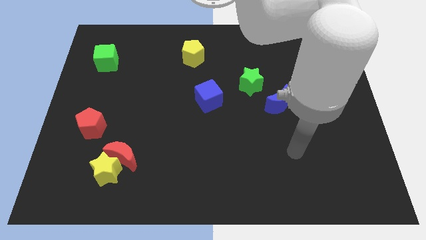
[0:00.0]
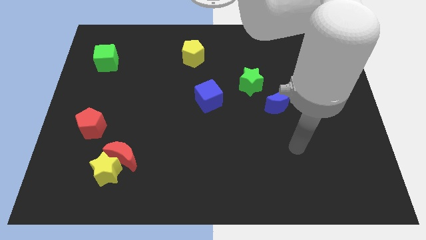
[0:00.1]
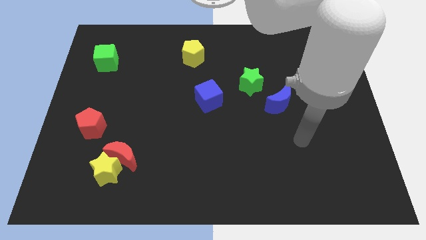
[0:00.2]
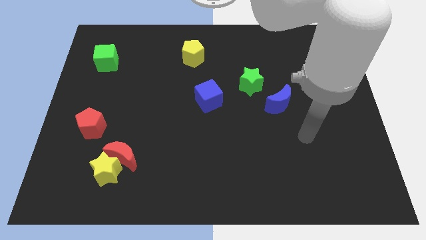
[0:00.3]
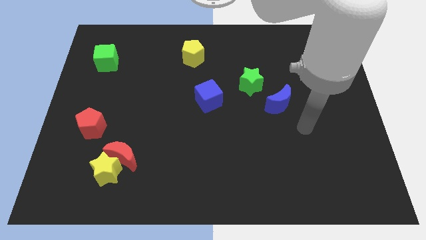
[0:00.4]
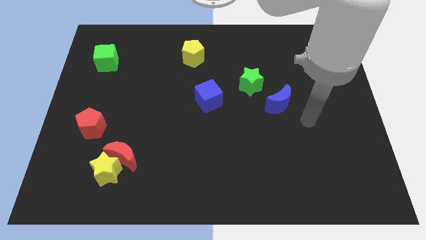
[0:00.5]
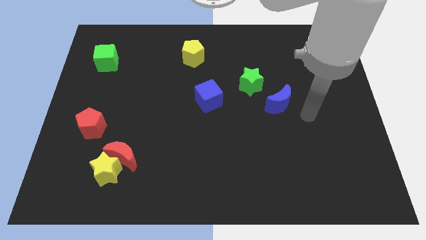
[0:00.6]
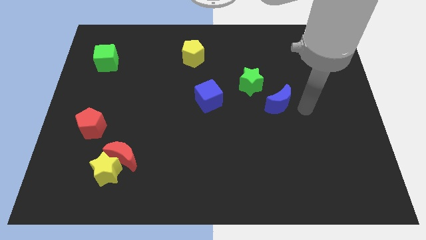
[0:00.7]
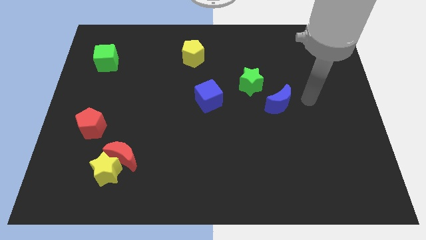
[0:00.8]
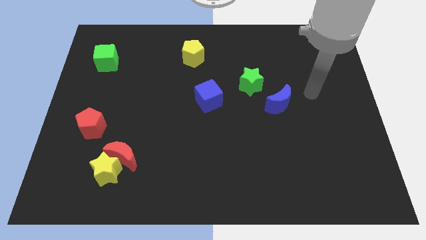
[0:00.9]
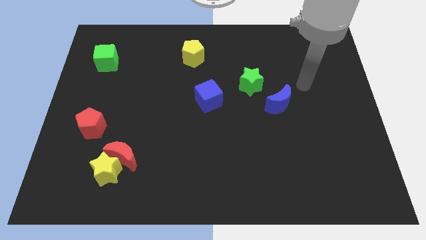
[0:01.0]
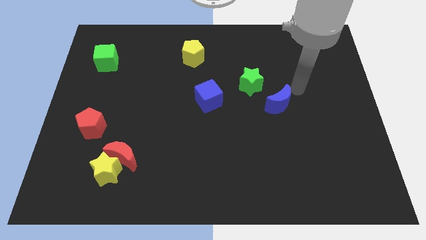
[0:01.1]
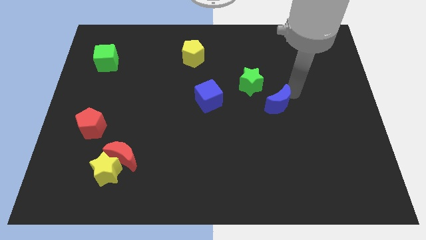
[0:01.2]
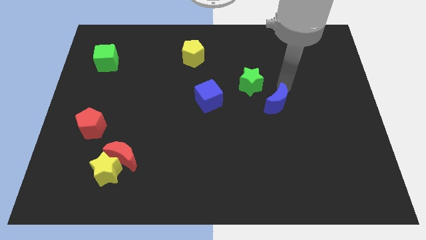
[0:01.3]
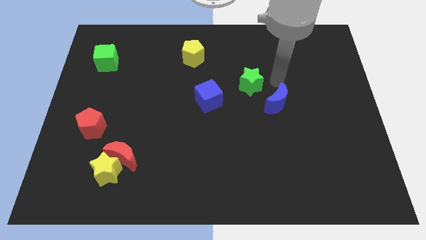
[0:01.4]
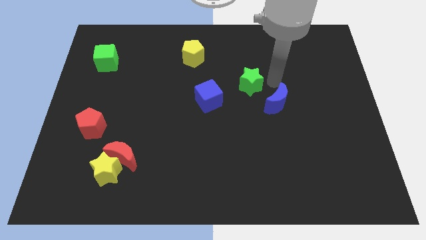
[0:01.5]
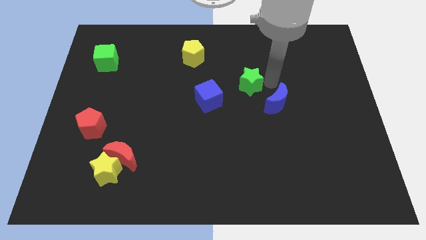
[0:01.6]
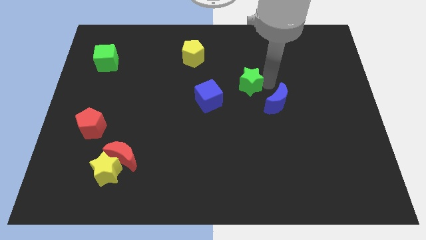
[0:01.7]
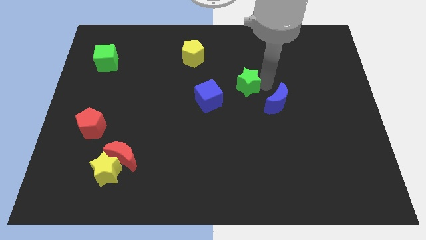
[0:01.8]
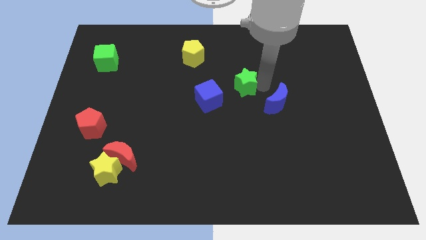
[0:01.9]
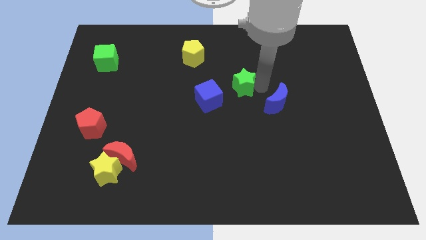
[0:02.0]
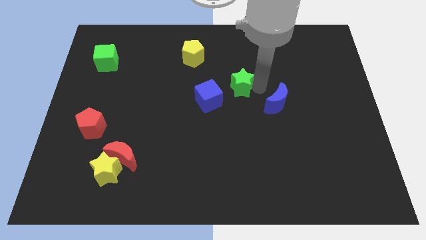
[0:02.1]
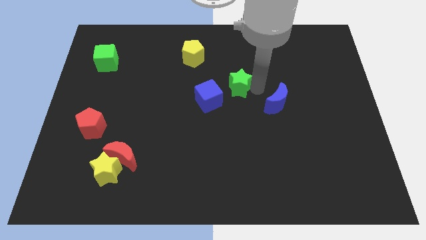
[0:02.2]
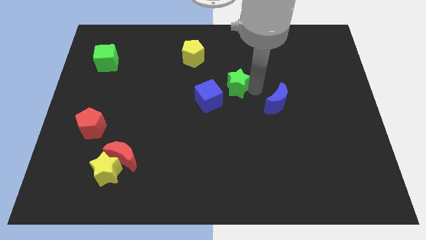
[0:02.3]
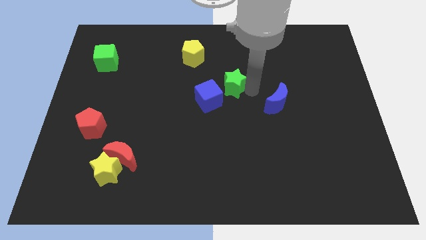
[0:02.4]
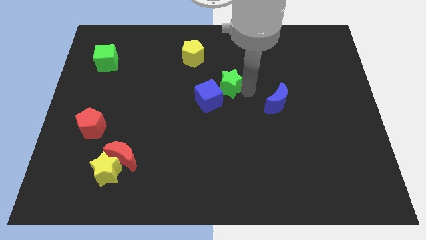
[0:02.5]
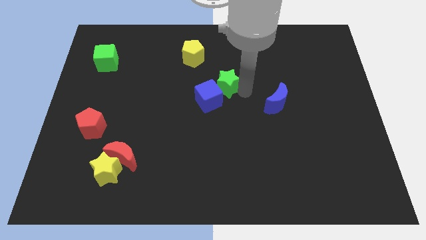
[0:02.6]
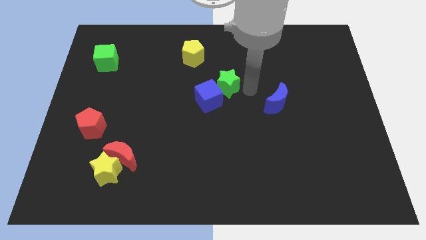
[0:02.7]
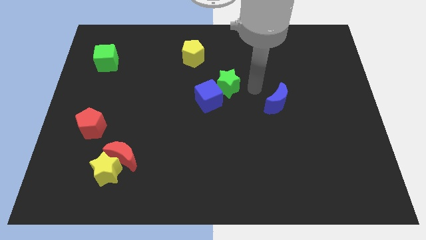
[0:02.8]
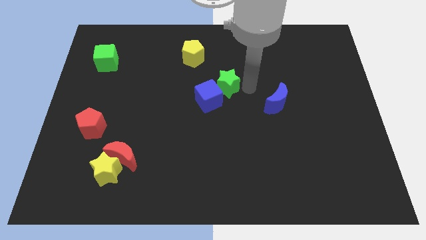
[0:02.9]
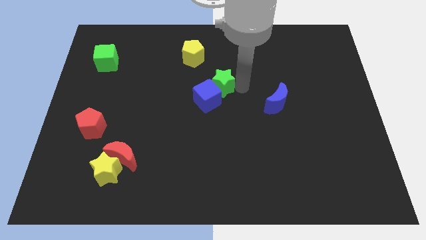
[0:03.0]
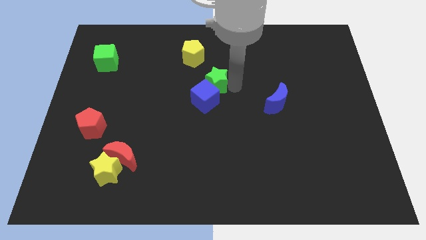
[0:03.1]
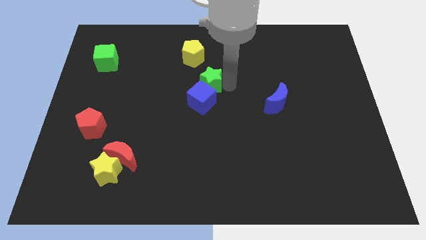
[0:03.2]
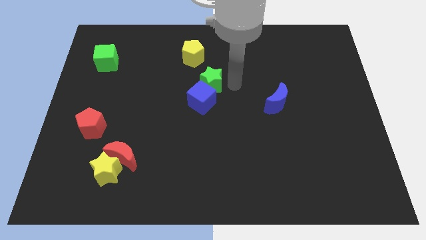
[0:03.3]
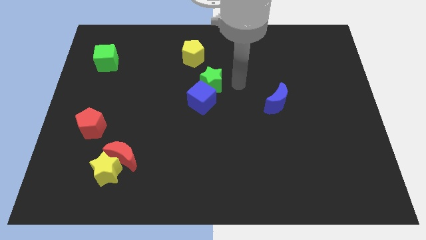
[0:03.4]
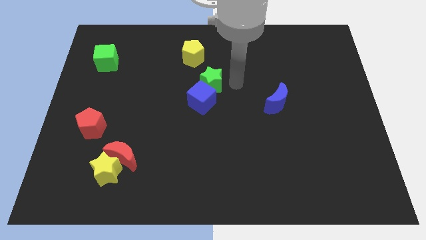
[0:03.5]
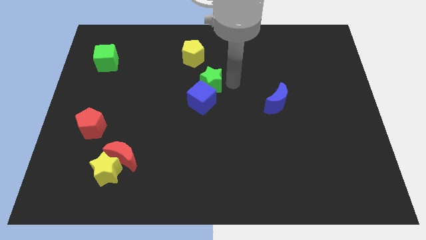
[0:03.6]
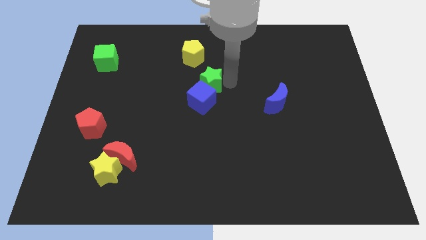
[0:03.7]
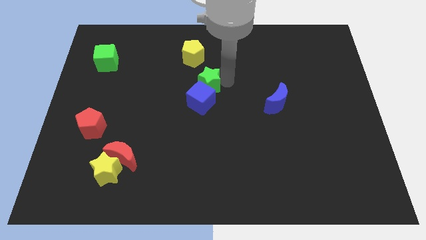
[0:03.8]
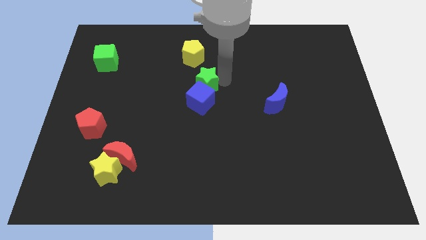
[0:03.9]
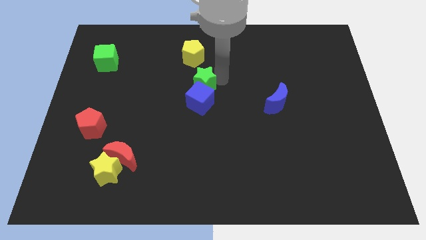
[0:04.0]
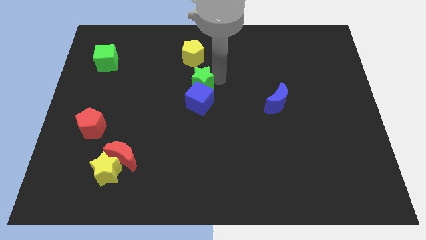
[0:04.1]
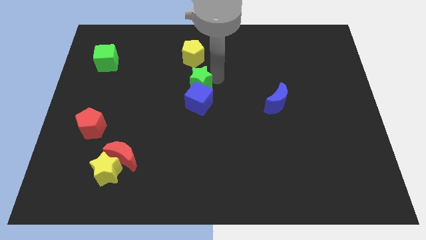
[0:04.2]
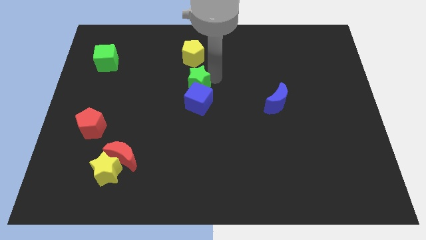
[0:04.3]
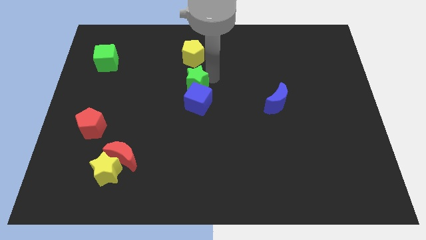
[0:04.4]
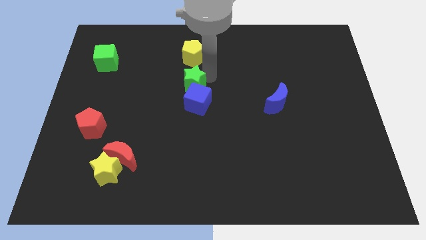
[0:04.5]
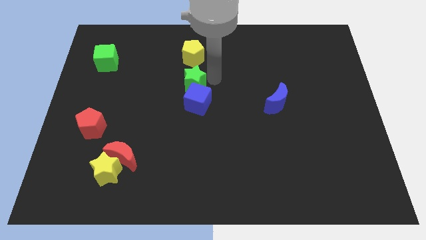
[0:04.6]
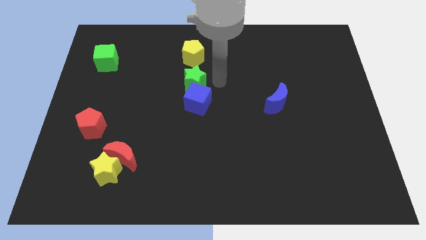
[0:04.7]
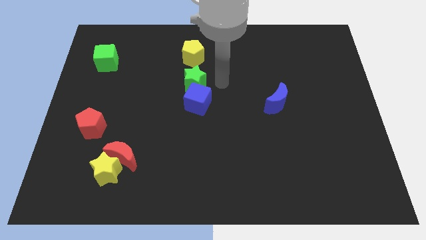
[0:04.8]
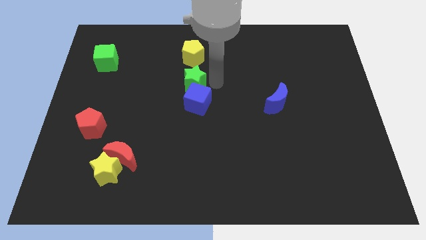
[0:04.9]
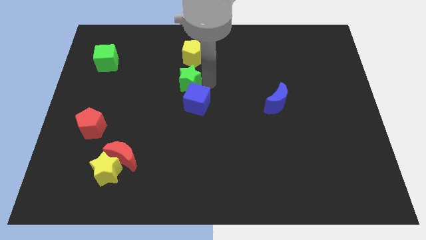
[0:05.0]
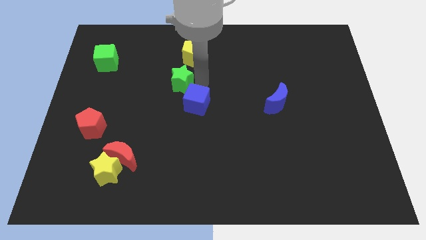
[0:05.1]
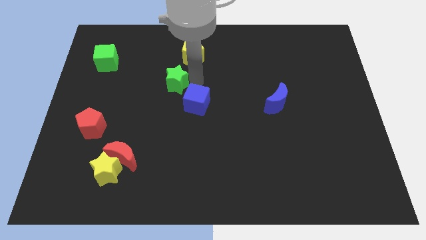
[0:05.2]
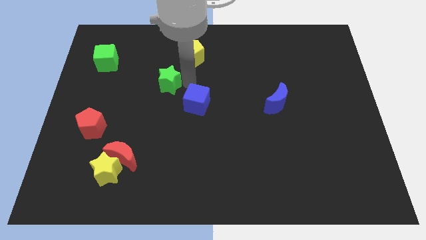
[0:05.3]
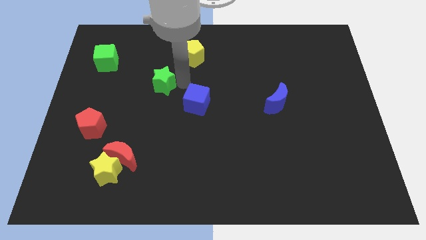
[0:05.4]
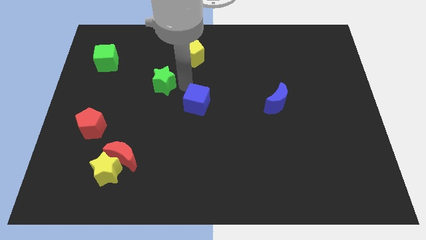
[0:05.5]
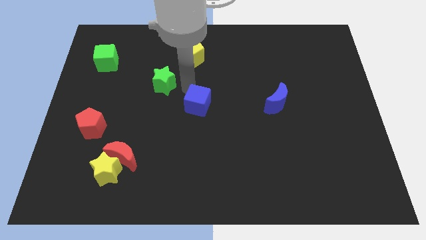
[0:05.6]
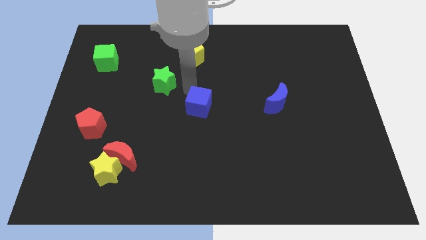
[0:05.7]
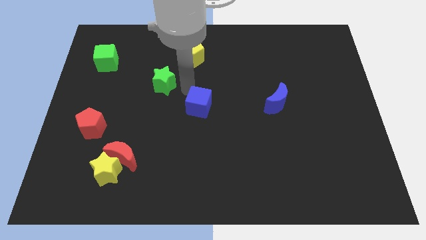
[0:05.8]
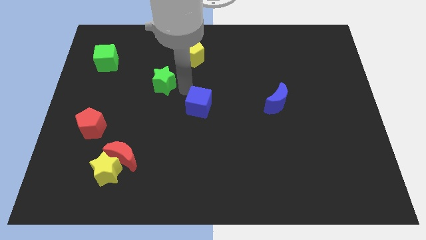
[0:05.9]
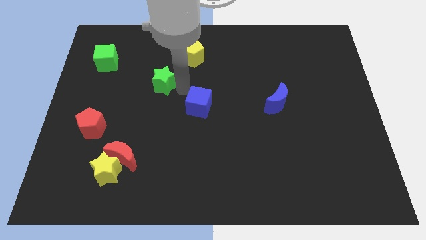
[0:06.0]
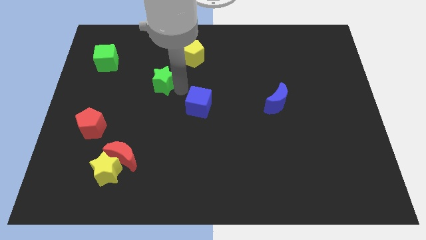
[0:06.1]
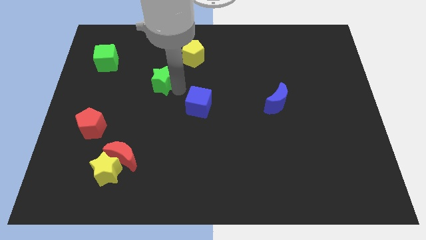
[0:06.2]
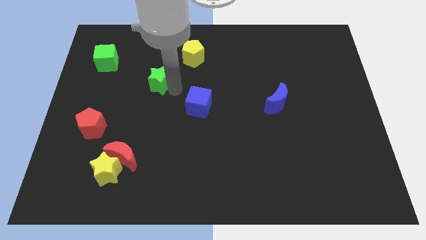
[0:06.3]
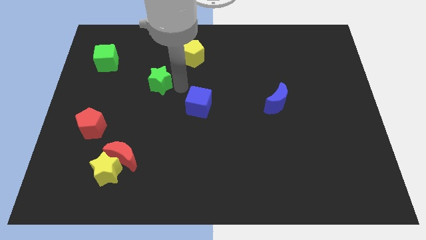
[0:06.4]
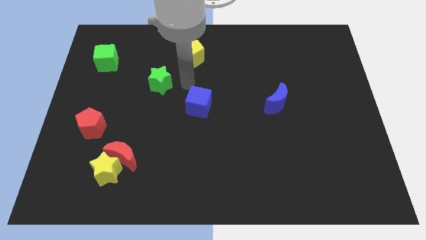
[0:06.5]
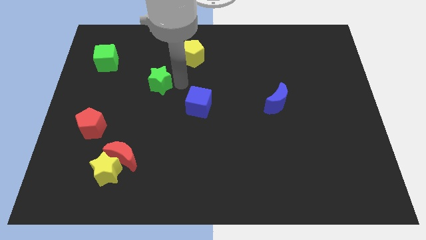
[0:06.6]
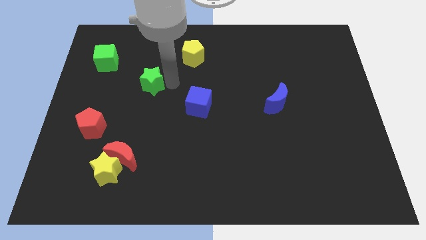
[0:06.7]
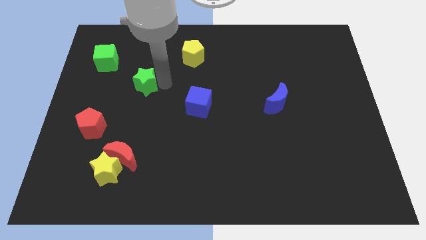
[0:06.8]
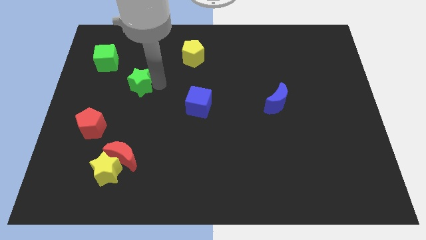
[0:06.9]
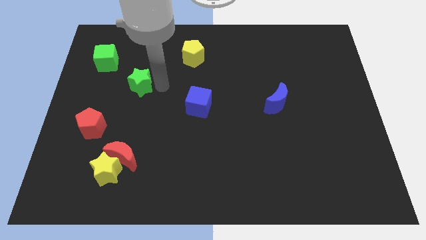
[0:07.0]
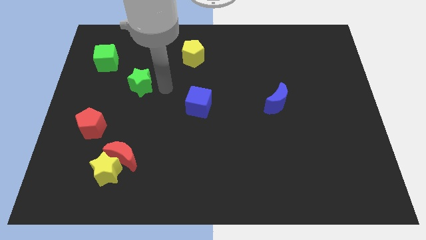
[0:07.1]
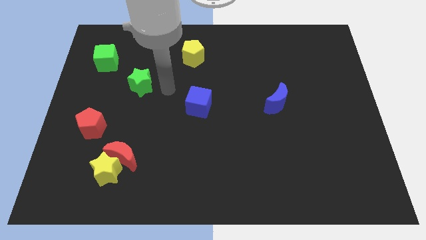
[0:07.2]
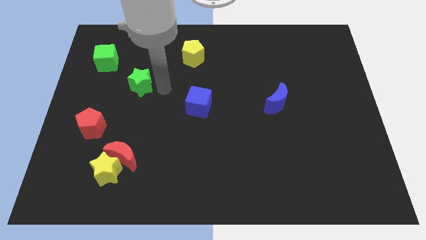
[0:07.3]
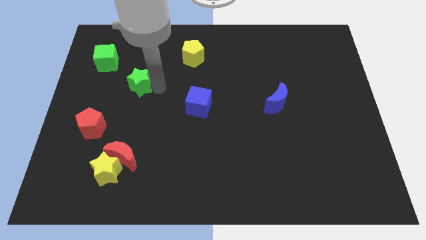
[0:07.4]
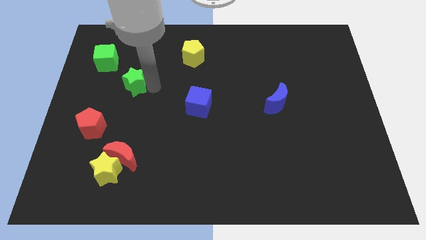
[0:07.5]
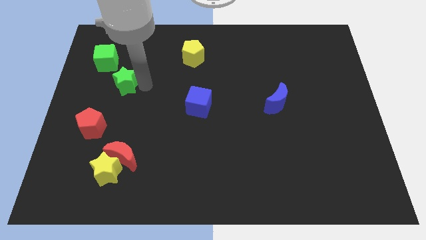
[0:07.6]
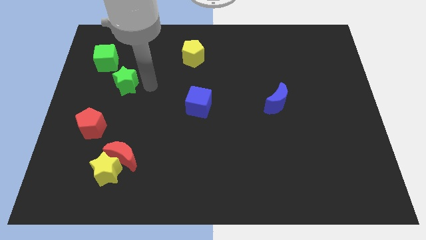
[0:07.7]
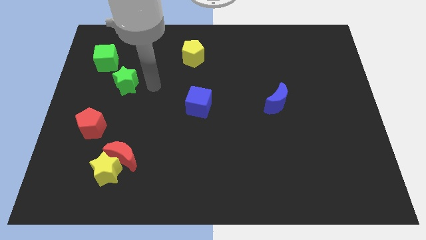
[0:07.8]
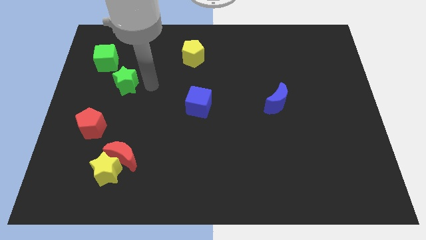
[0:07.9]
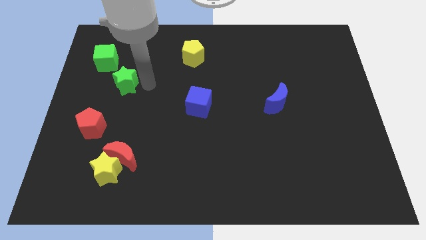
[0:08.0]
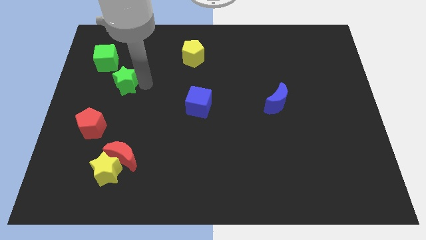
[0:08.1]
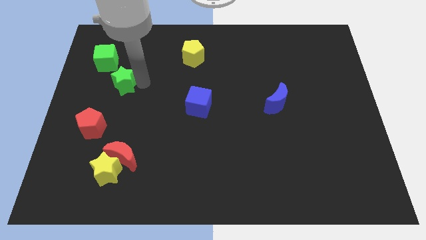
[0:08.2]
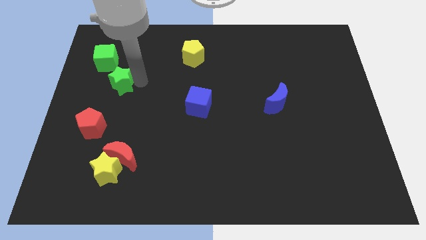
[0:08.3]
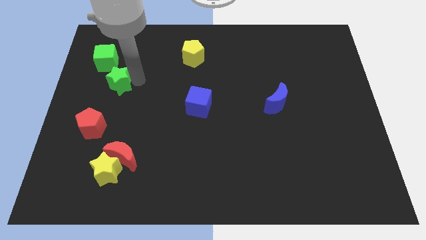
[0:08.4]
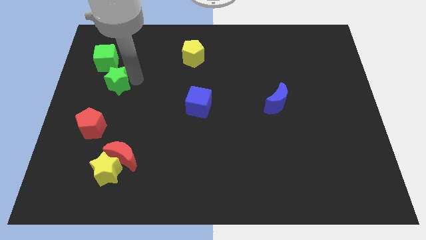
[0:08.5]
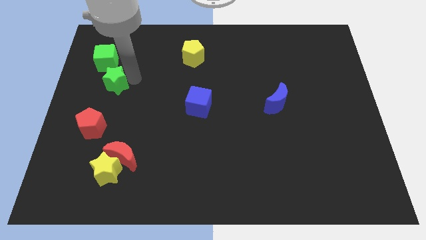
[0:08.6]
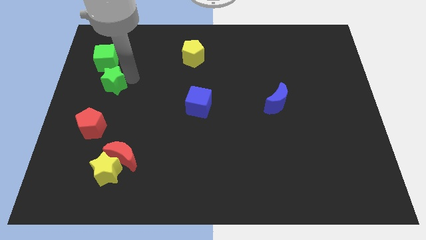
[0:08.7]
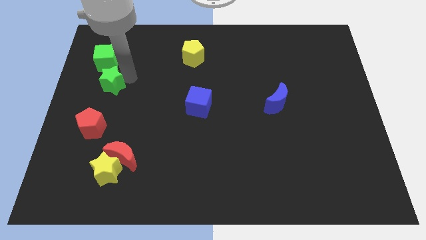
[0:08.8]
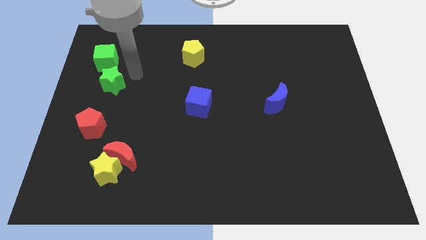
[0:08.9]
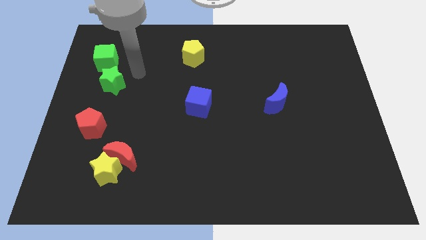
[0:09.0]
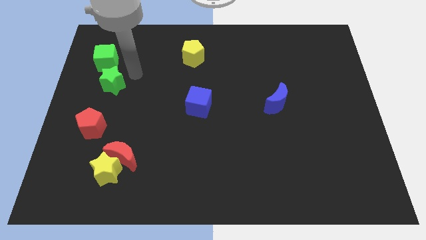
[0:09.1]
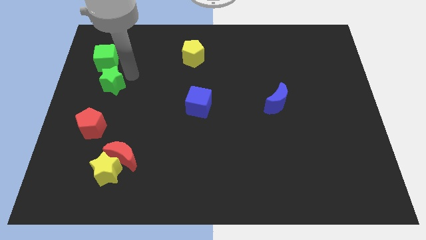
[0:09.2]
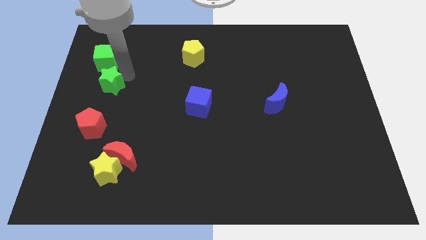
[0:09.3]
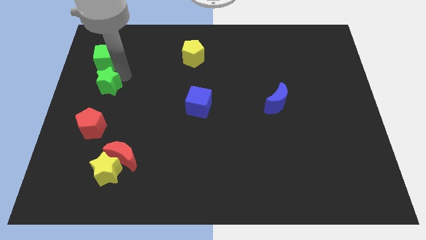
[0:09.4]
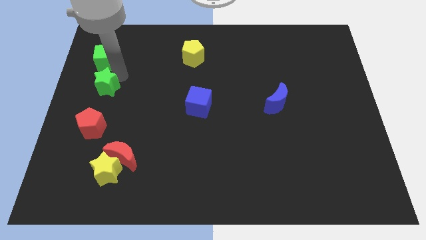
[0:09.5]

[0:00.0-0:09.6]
move the green star to the center left
